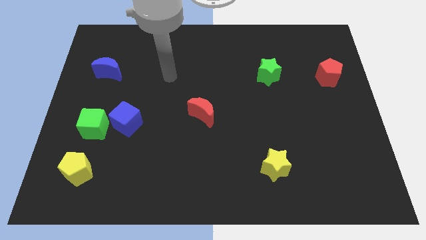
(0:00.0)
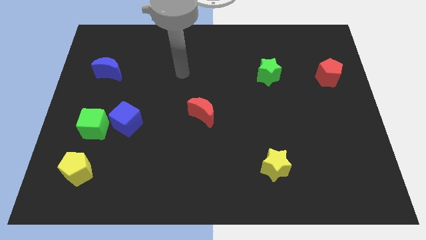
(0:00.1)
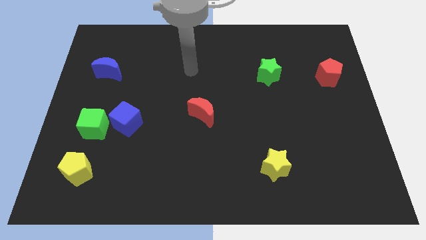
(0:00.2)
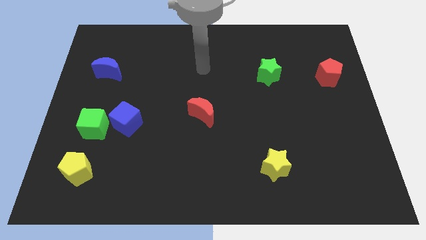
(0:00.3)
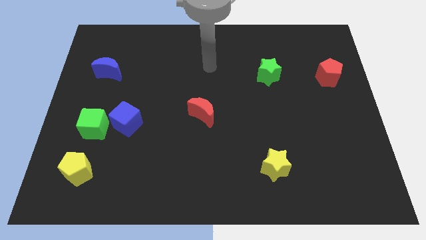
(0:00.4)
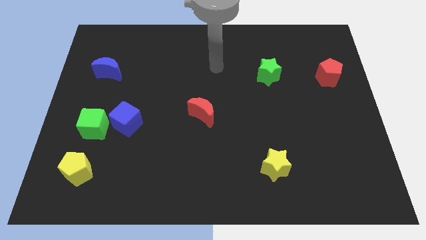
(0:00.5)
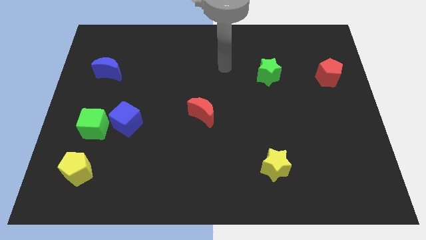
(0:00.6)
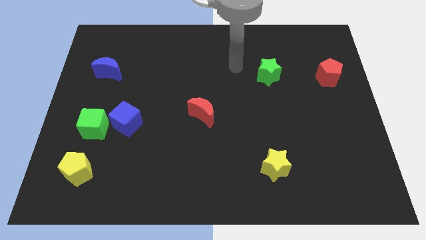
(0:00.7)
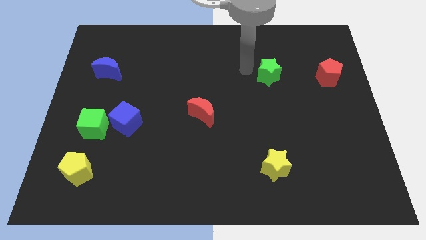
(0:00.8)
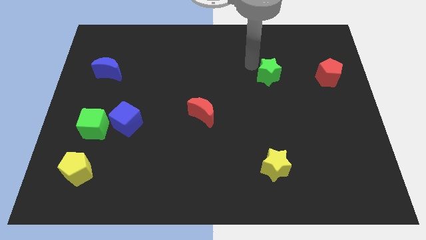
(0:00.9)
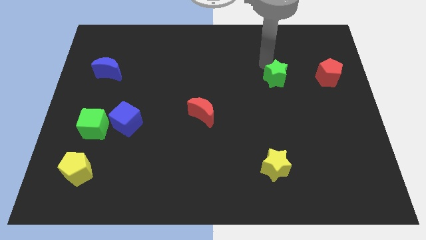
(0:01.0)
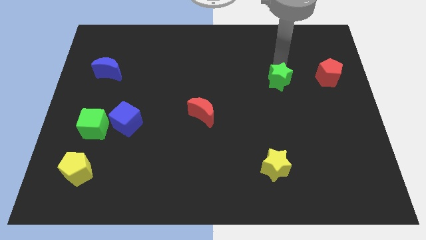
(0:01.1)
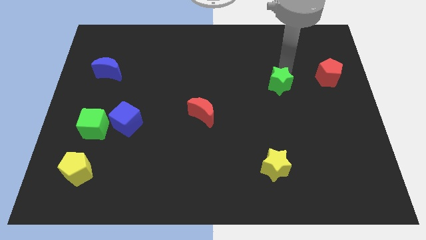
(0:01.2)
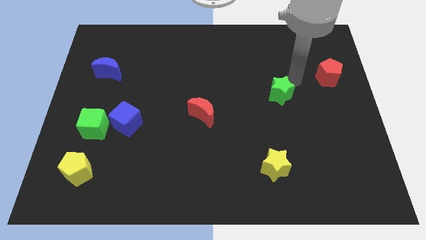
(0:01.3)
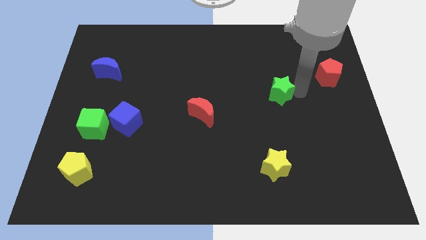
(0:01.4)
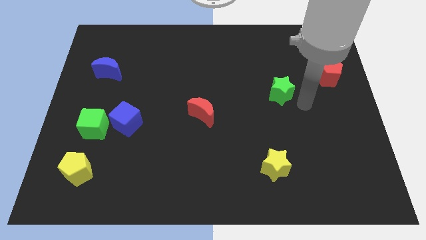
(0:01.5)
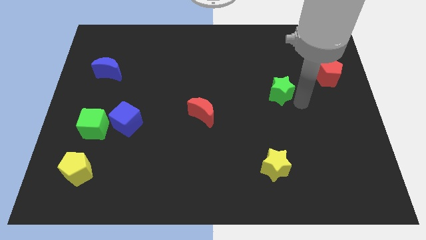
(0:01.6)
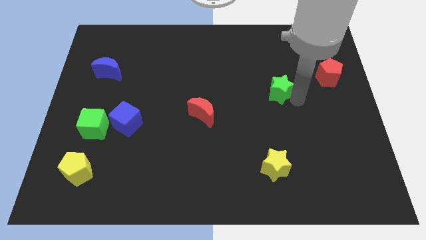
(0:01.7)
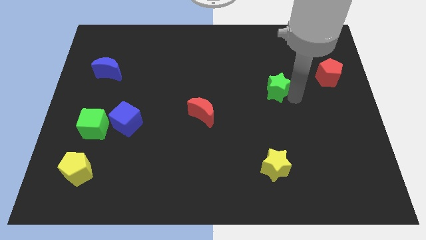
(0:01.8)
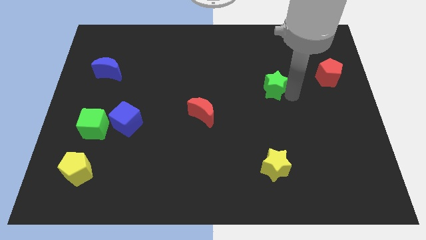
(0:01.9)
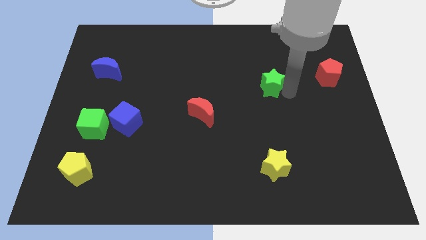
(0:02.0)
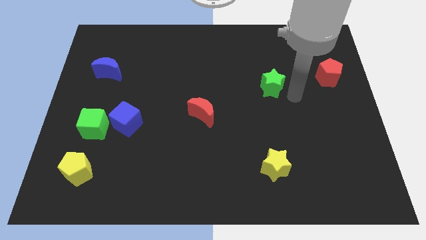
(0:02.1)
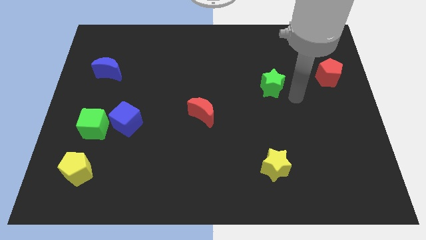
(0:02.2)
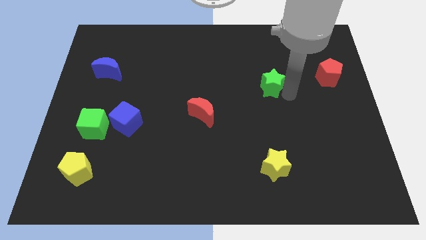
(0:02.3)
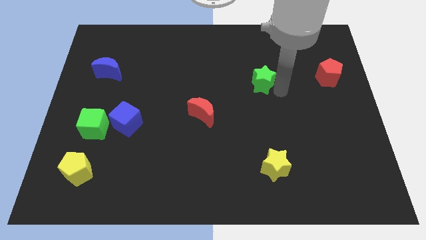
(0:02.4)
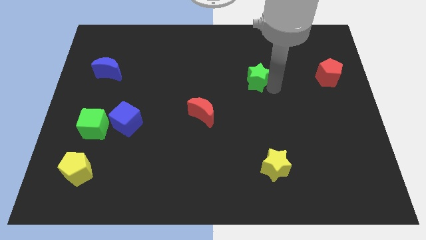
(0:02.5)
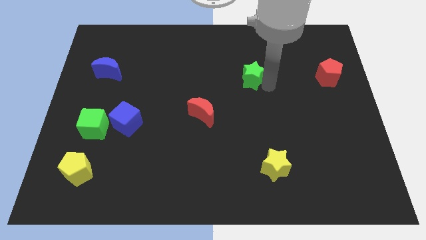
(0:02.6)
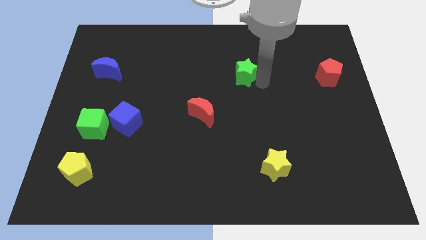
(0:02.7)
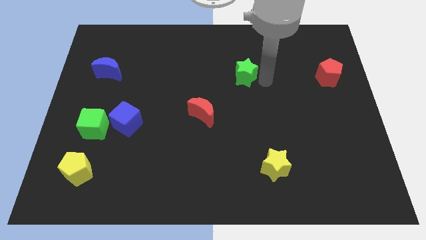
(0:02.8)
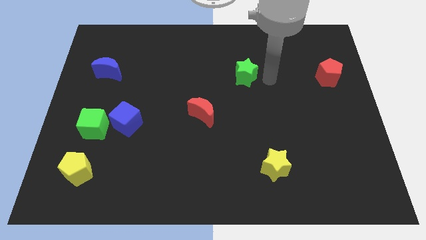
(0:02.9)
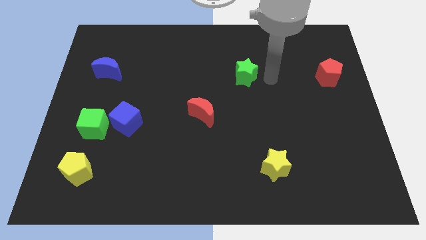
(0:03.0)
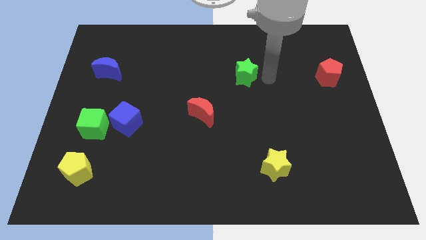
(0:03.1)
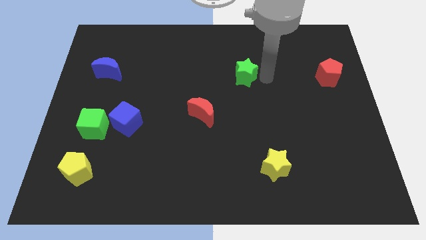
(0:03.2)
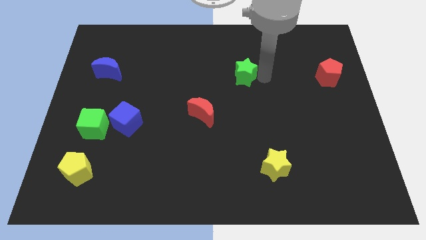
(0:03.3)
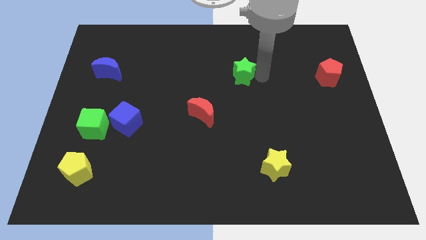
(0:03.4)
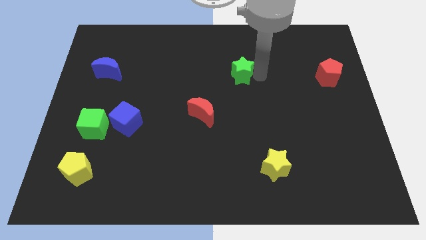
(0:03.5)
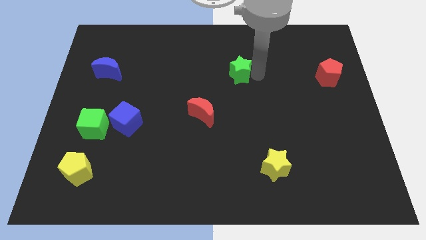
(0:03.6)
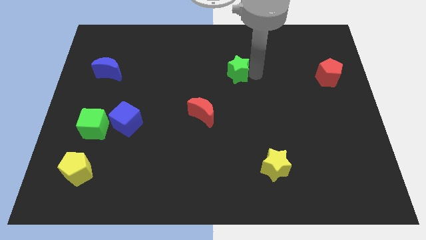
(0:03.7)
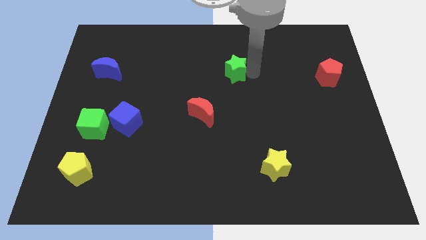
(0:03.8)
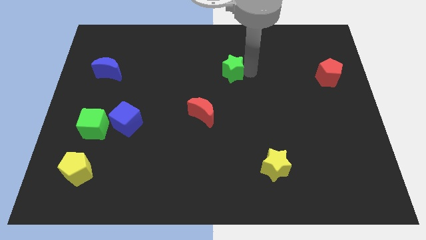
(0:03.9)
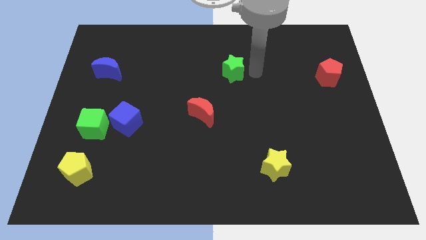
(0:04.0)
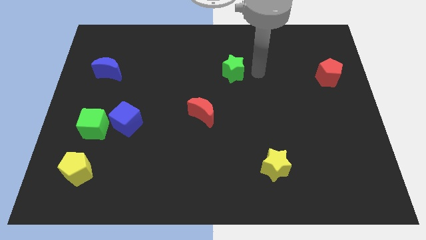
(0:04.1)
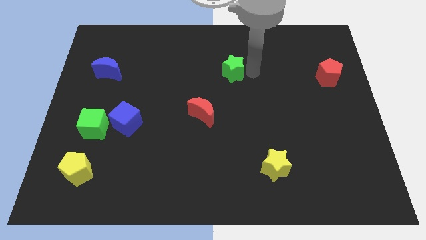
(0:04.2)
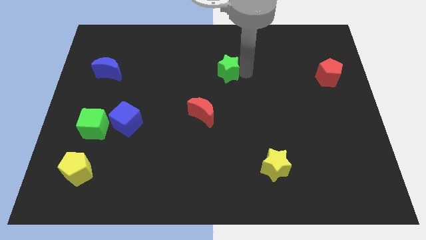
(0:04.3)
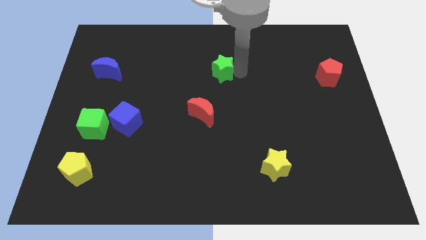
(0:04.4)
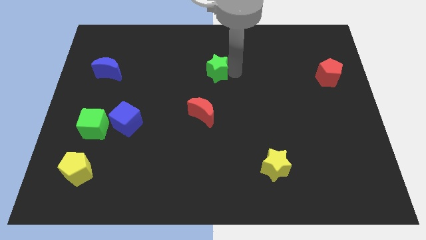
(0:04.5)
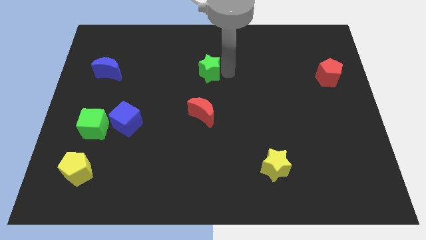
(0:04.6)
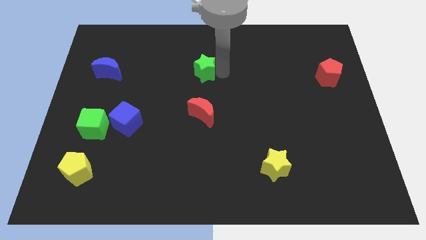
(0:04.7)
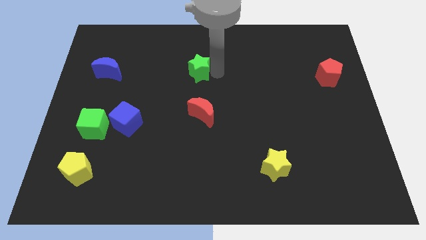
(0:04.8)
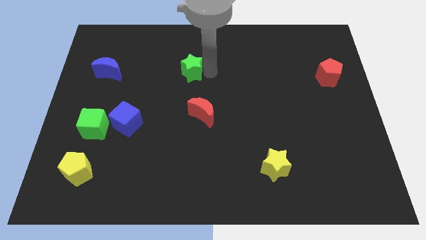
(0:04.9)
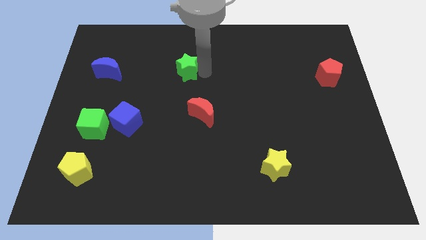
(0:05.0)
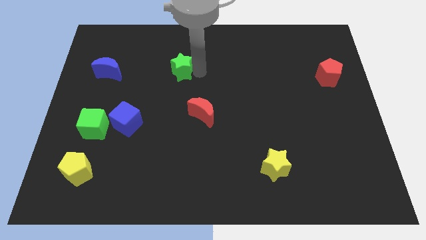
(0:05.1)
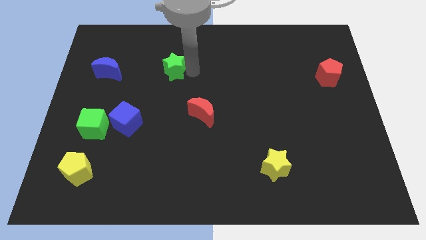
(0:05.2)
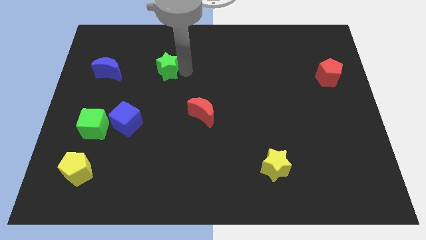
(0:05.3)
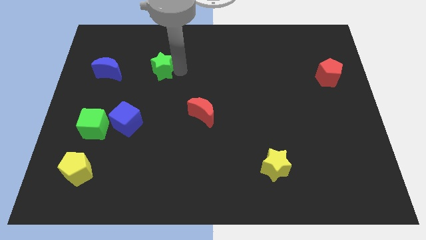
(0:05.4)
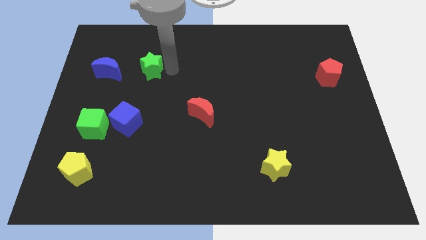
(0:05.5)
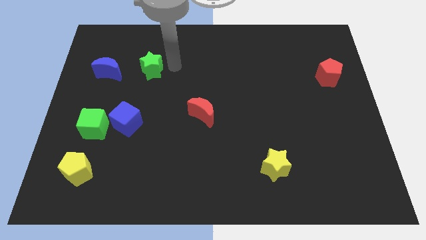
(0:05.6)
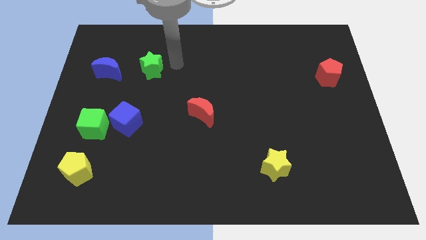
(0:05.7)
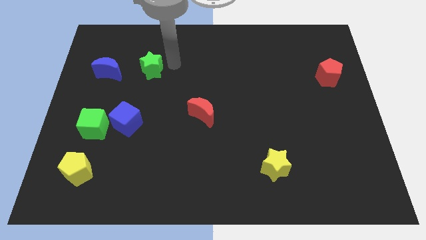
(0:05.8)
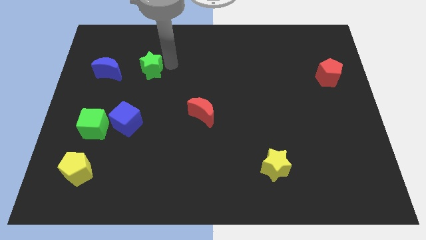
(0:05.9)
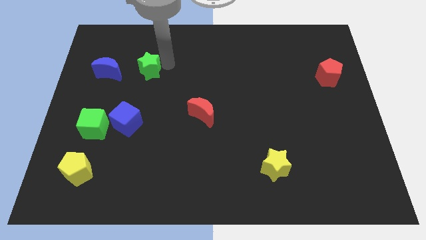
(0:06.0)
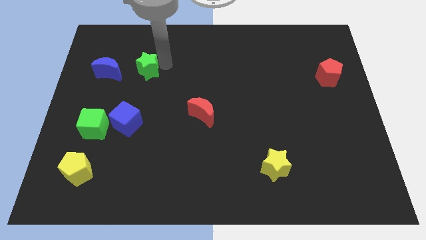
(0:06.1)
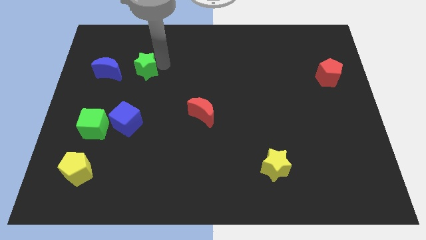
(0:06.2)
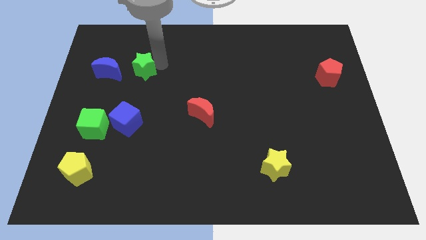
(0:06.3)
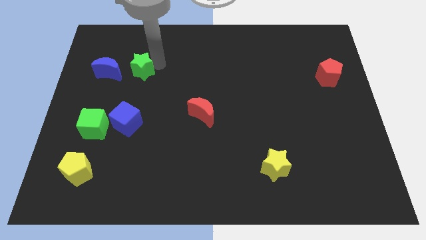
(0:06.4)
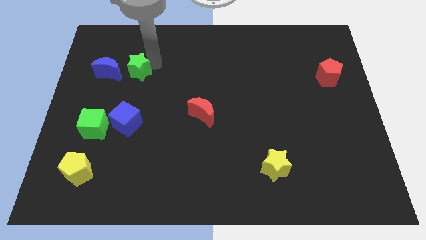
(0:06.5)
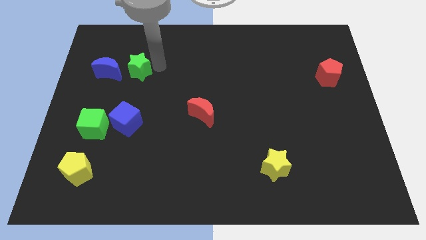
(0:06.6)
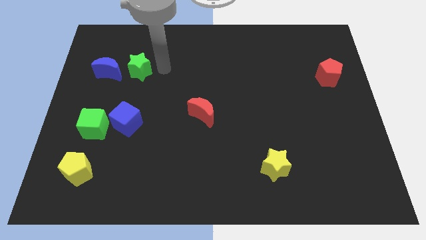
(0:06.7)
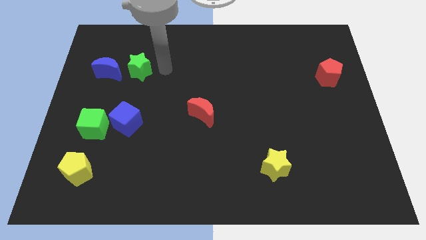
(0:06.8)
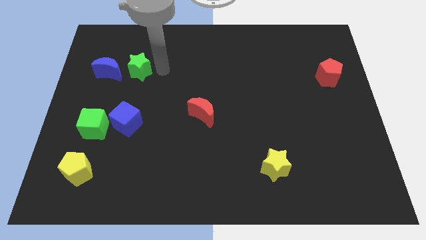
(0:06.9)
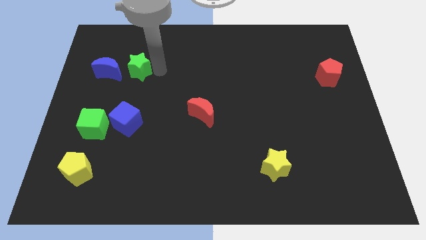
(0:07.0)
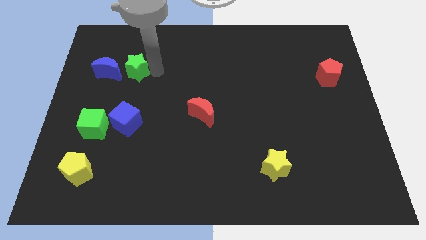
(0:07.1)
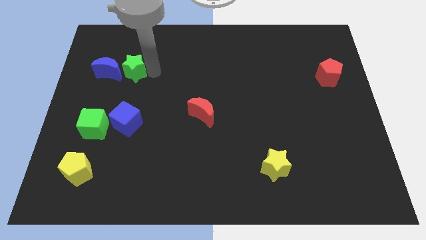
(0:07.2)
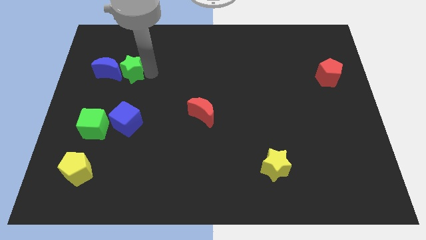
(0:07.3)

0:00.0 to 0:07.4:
slide the green star to the blue moon
